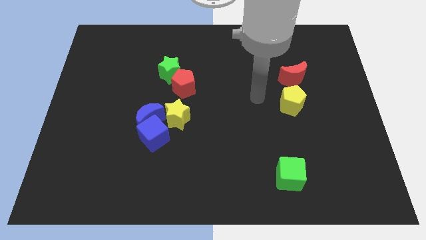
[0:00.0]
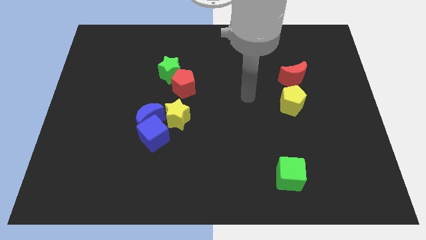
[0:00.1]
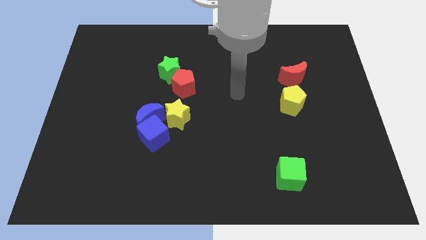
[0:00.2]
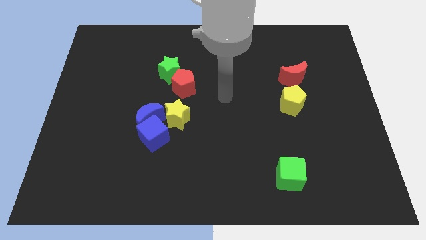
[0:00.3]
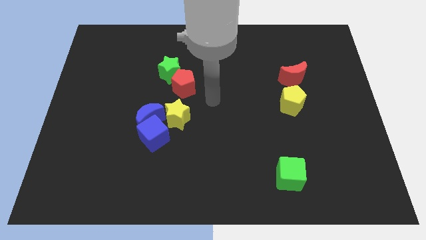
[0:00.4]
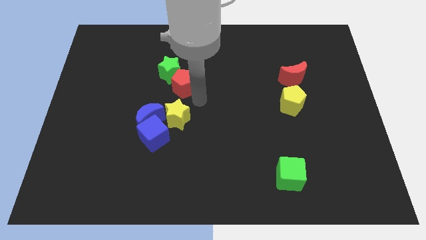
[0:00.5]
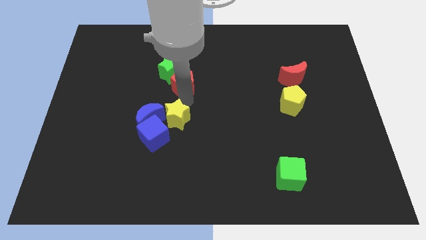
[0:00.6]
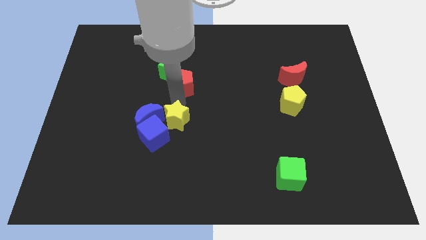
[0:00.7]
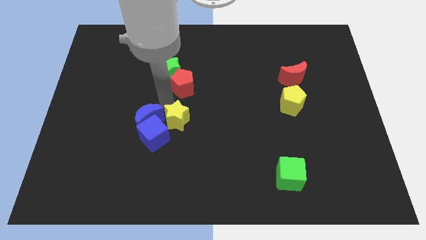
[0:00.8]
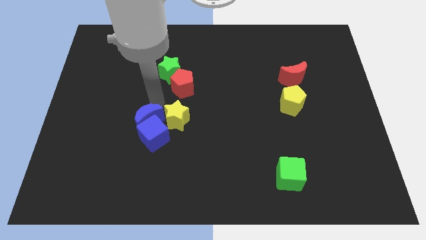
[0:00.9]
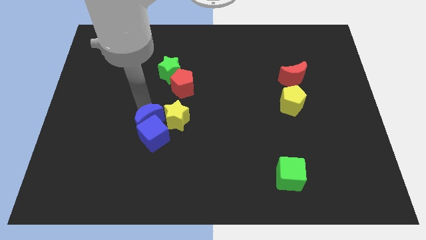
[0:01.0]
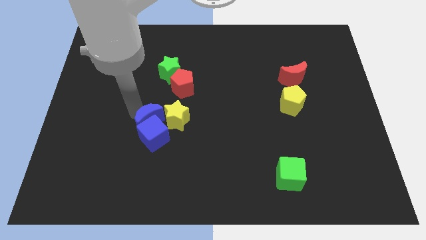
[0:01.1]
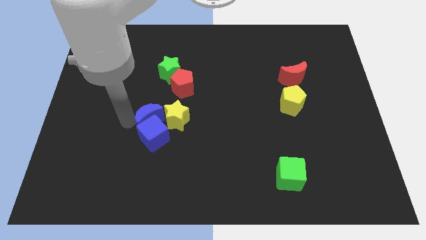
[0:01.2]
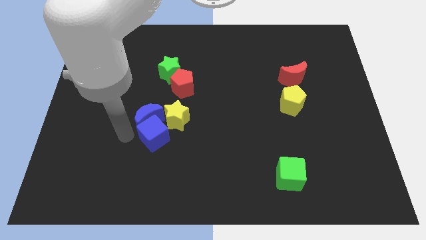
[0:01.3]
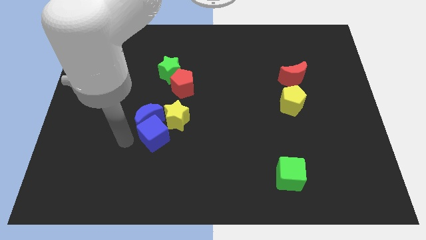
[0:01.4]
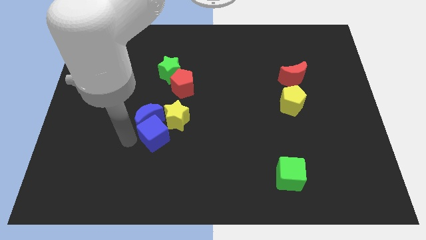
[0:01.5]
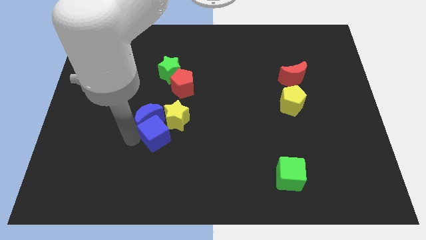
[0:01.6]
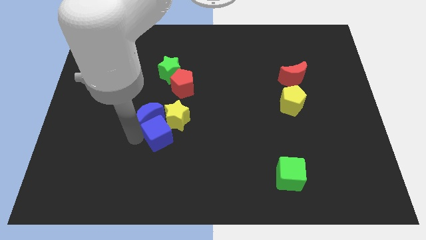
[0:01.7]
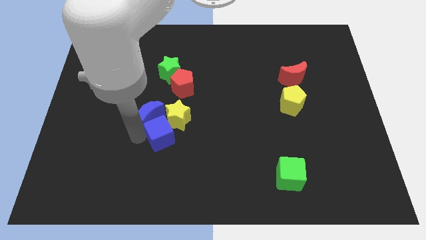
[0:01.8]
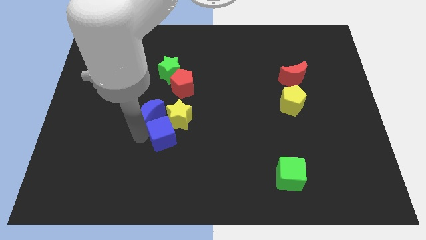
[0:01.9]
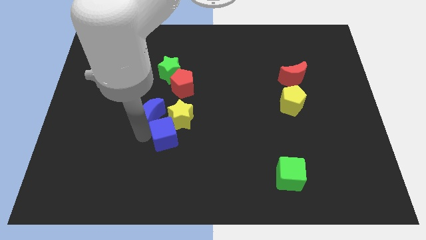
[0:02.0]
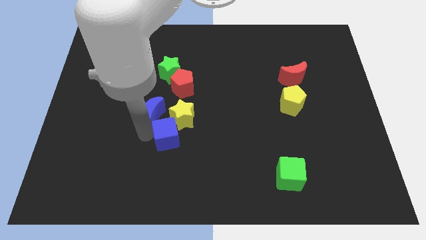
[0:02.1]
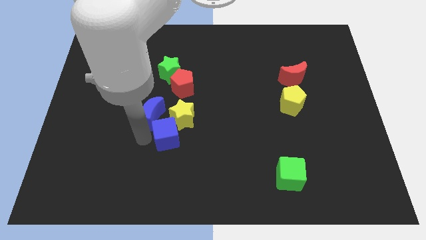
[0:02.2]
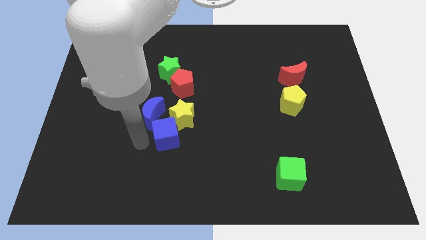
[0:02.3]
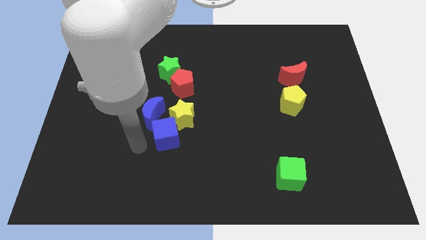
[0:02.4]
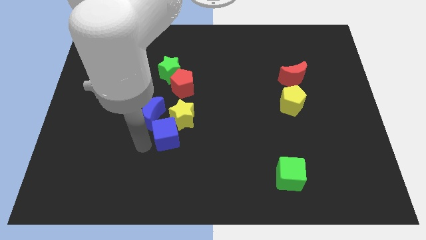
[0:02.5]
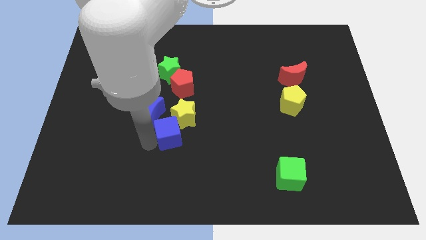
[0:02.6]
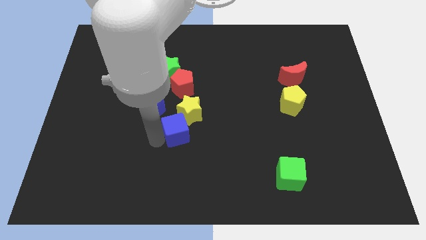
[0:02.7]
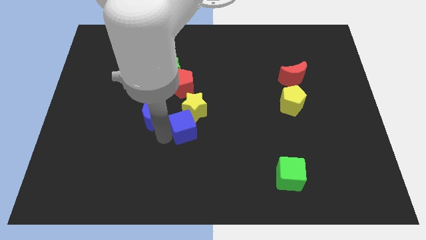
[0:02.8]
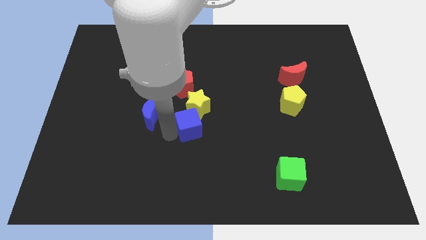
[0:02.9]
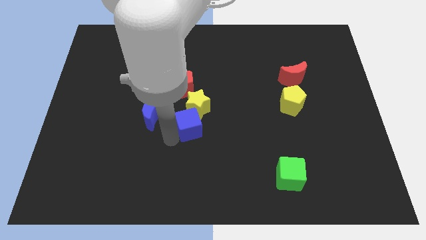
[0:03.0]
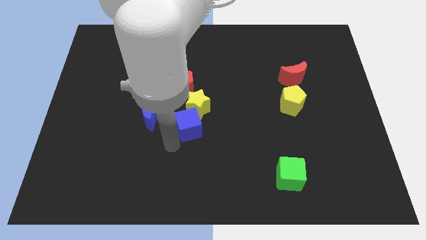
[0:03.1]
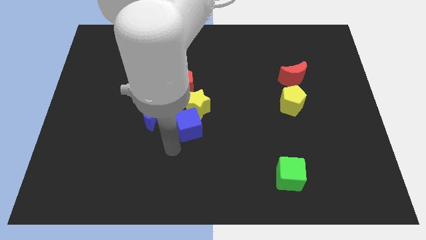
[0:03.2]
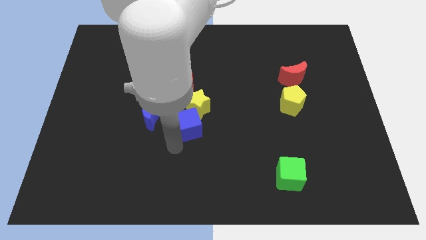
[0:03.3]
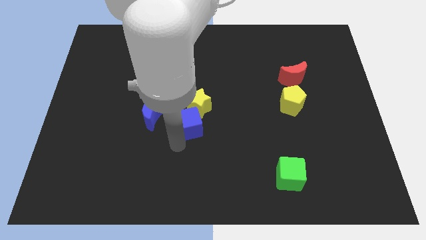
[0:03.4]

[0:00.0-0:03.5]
slightly push the blue cube diagonally upwards and to the right

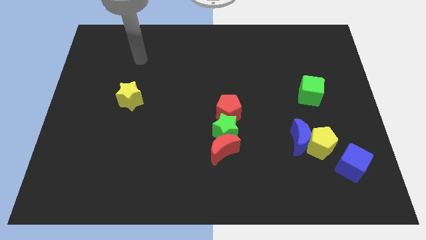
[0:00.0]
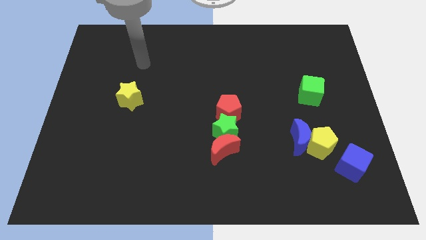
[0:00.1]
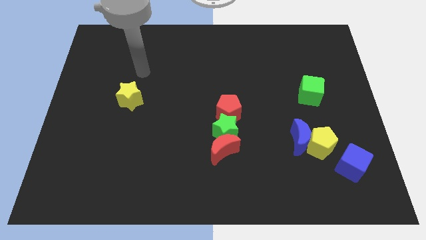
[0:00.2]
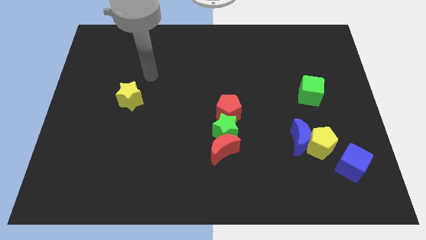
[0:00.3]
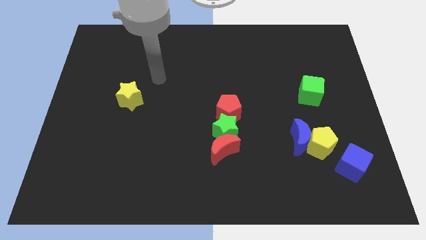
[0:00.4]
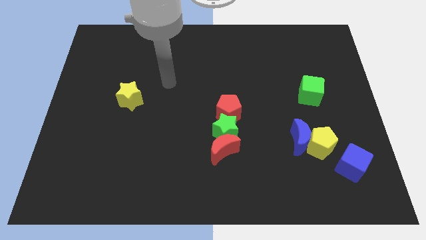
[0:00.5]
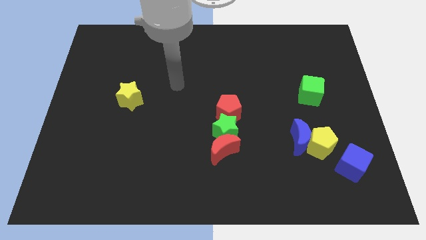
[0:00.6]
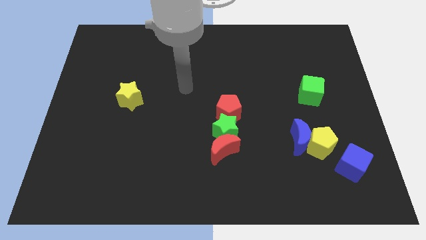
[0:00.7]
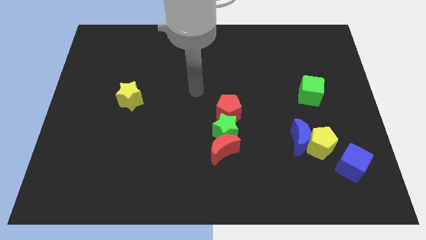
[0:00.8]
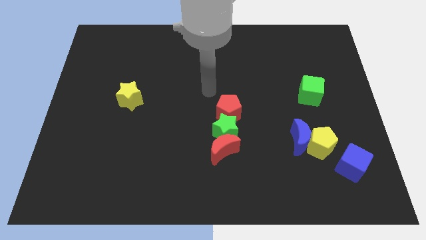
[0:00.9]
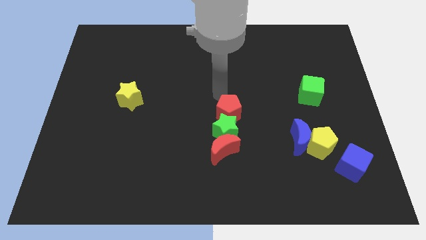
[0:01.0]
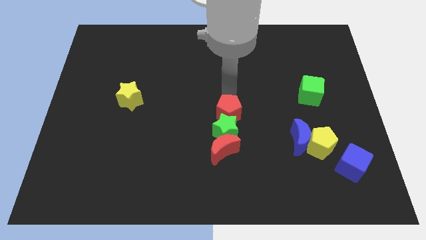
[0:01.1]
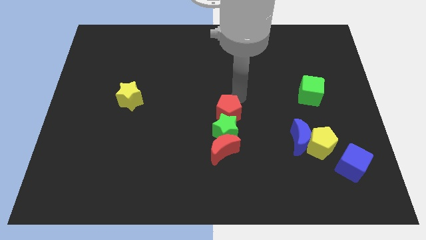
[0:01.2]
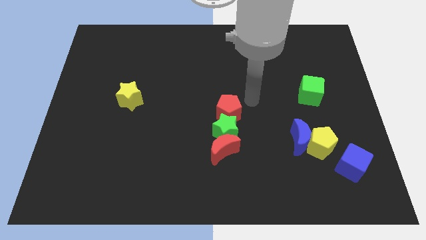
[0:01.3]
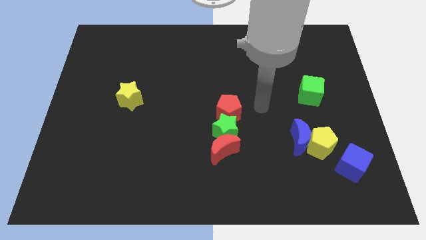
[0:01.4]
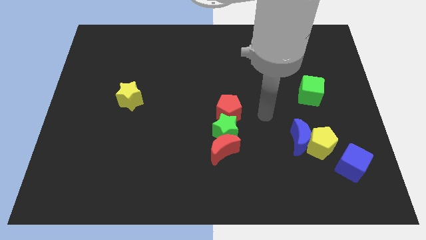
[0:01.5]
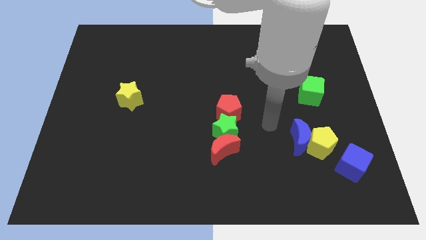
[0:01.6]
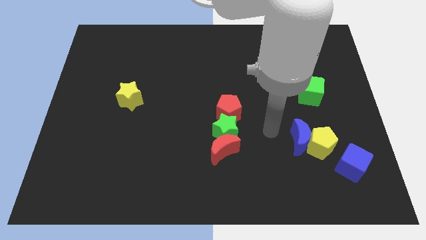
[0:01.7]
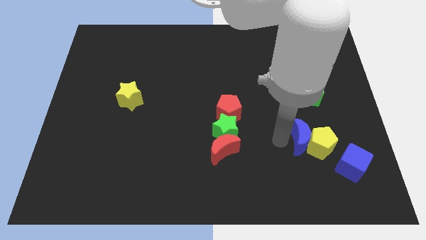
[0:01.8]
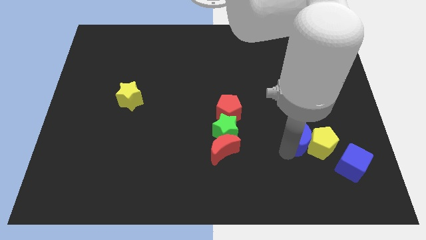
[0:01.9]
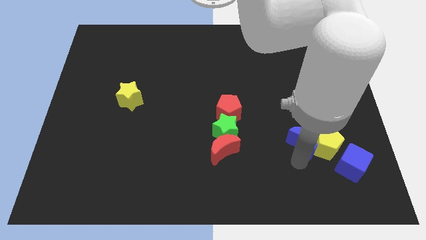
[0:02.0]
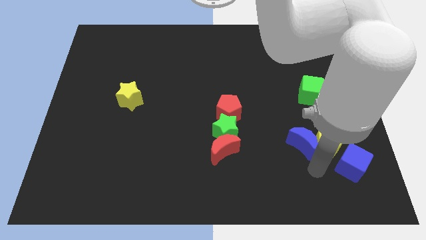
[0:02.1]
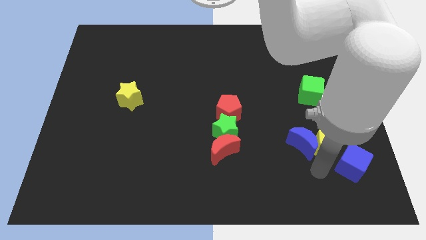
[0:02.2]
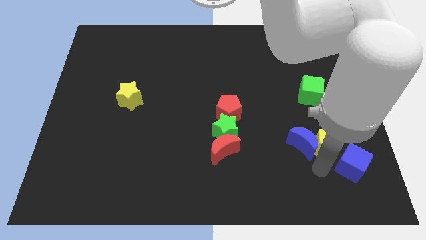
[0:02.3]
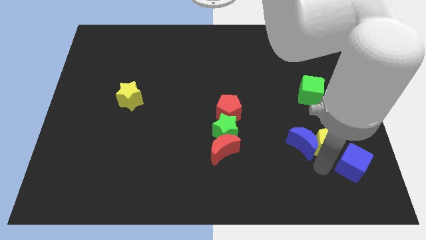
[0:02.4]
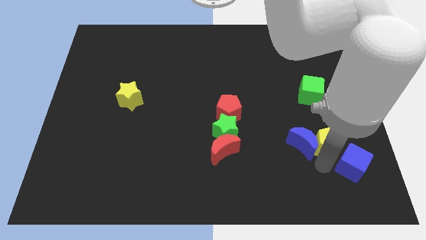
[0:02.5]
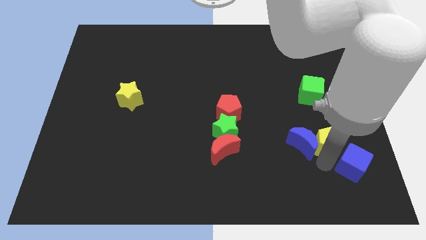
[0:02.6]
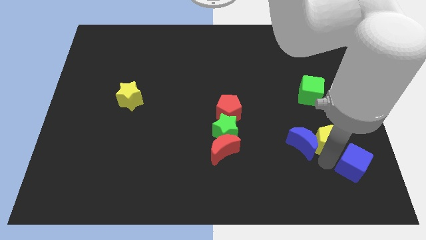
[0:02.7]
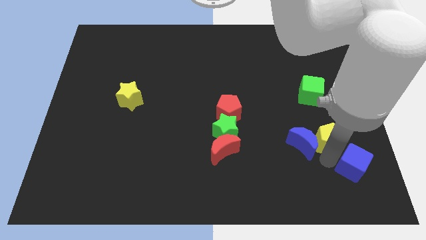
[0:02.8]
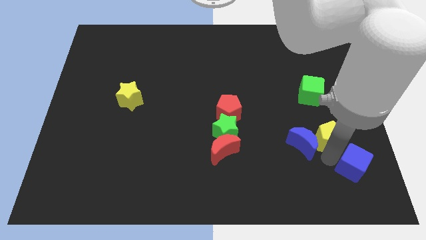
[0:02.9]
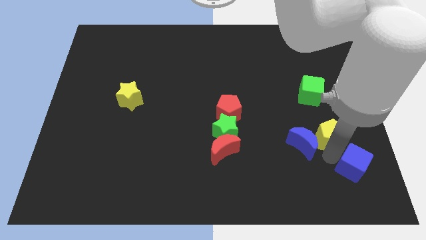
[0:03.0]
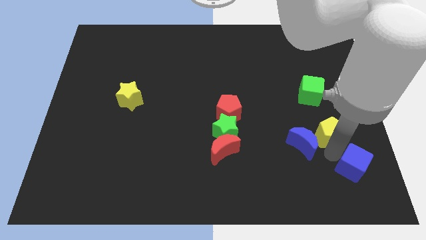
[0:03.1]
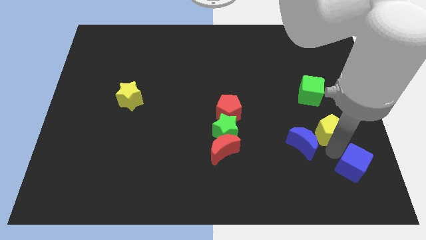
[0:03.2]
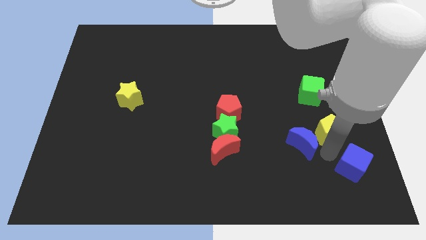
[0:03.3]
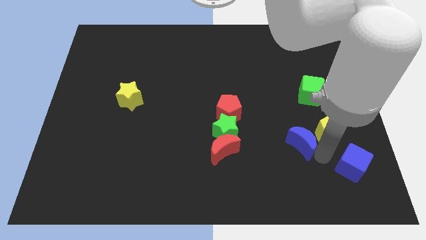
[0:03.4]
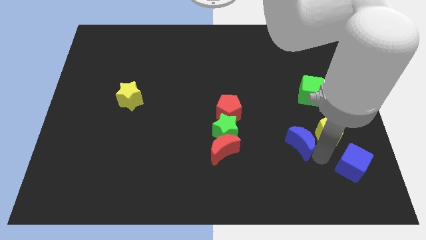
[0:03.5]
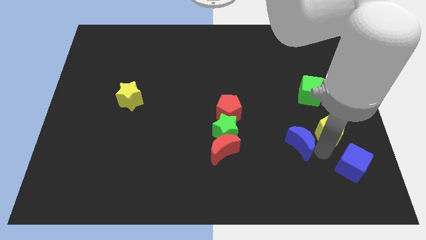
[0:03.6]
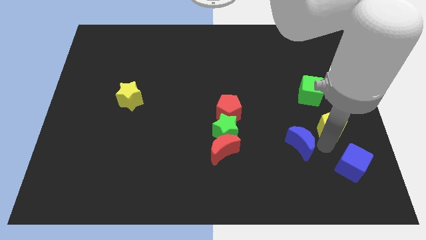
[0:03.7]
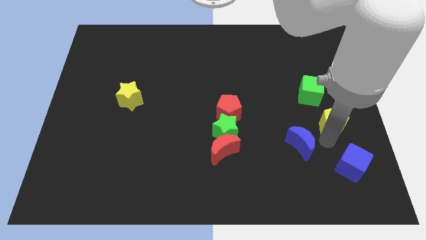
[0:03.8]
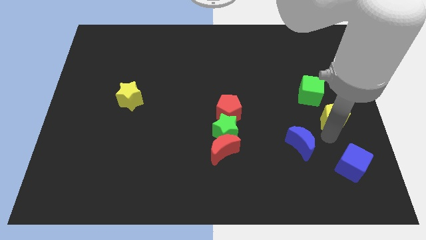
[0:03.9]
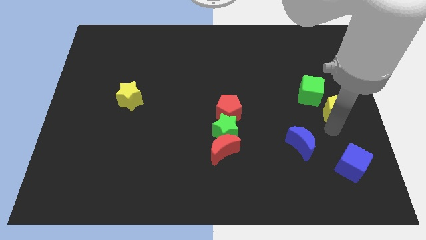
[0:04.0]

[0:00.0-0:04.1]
move the yellow pentagon upwards a little bit

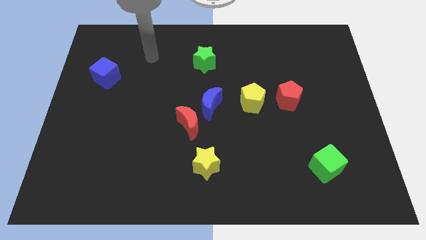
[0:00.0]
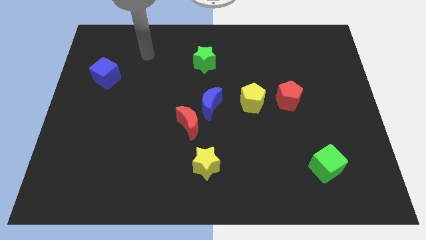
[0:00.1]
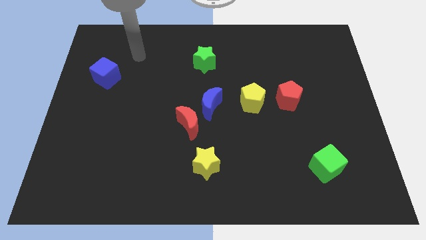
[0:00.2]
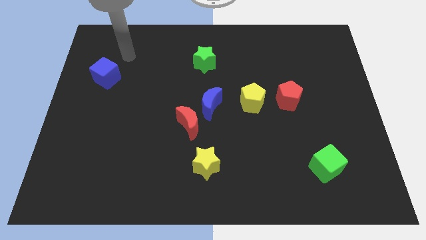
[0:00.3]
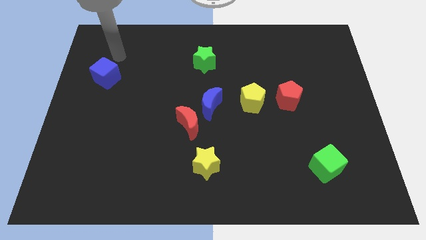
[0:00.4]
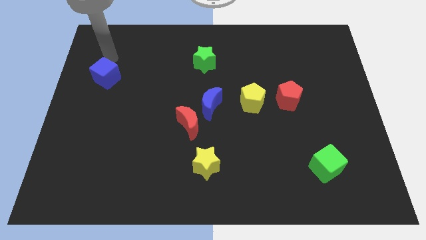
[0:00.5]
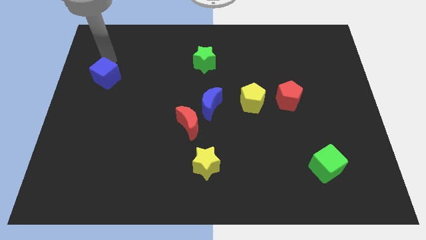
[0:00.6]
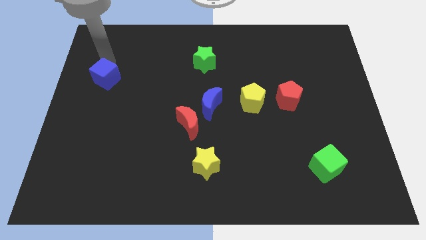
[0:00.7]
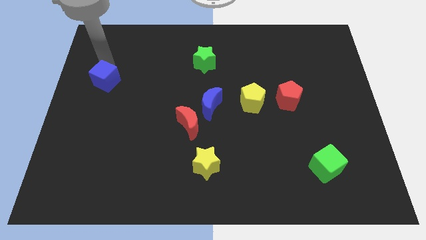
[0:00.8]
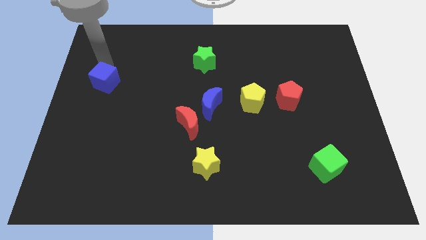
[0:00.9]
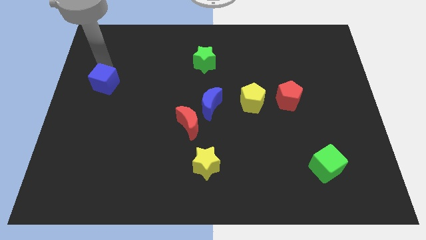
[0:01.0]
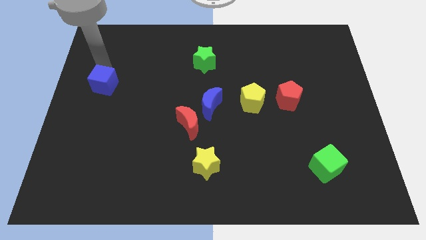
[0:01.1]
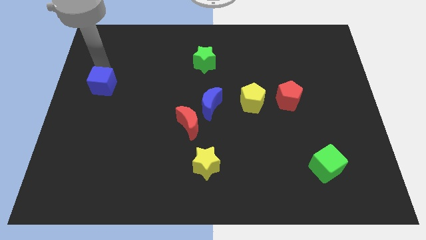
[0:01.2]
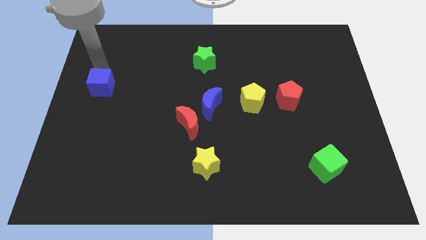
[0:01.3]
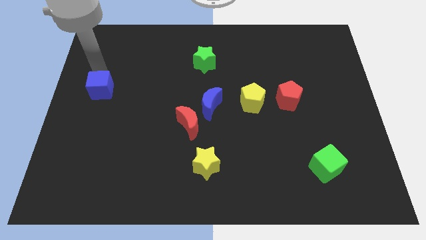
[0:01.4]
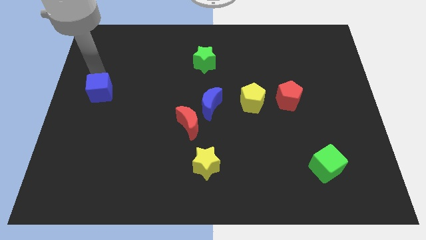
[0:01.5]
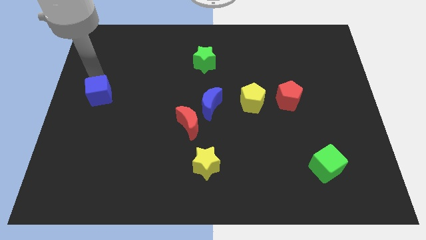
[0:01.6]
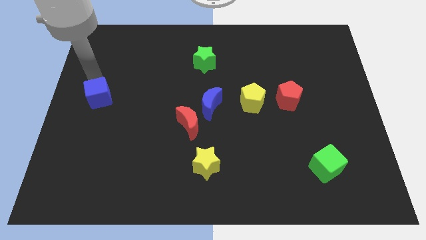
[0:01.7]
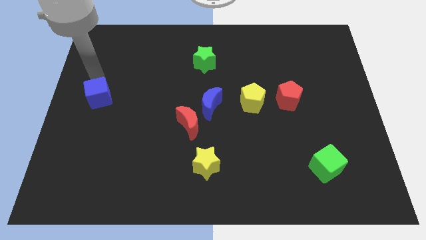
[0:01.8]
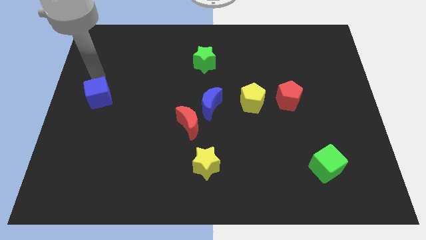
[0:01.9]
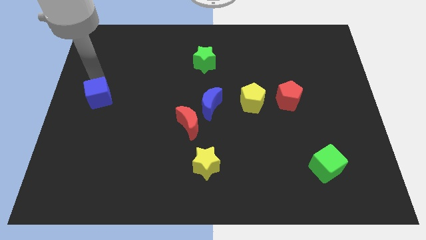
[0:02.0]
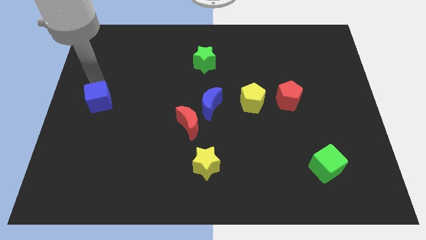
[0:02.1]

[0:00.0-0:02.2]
slightly slide the blue cube down
